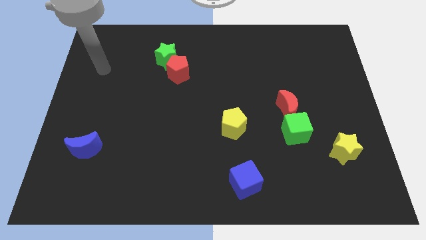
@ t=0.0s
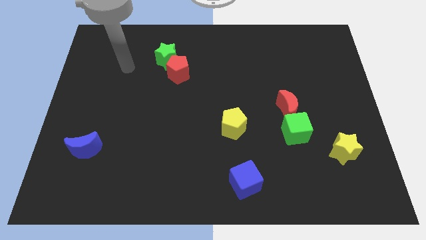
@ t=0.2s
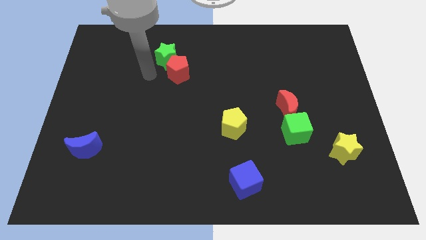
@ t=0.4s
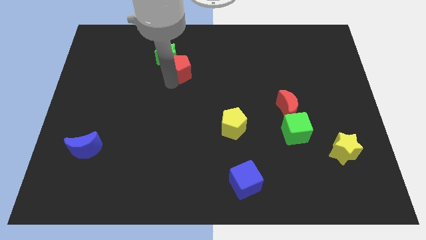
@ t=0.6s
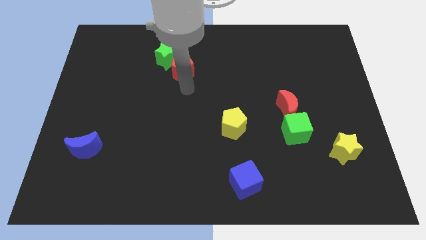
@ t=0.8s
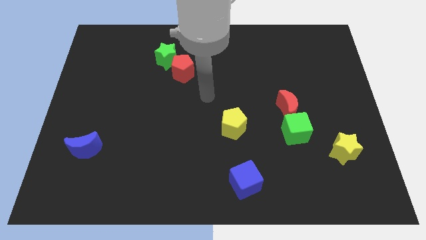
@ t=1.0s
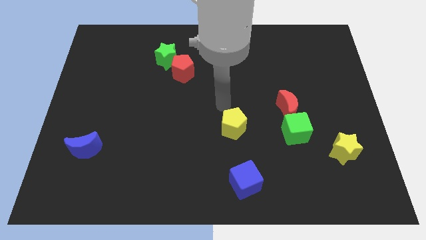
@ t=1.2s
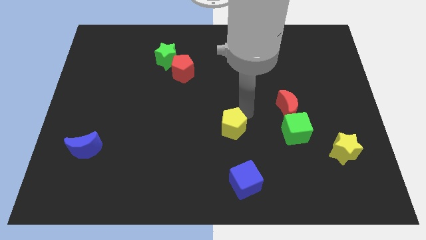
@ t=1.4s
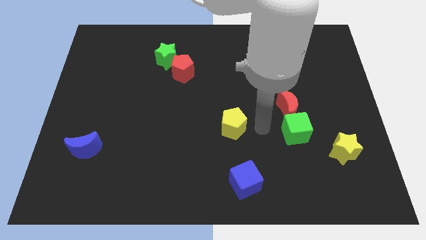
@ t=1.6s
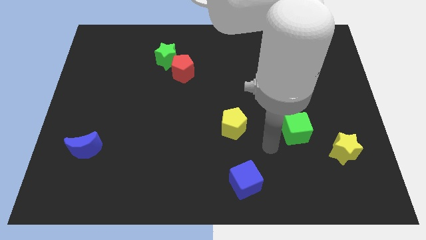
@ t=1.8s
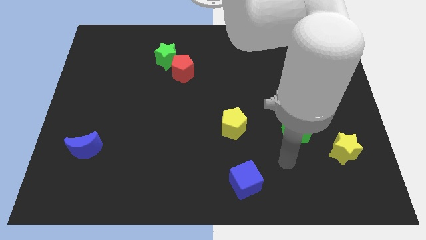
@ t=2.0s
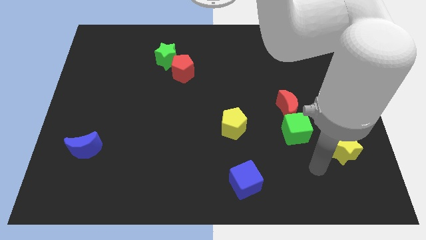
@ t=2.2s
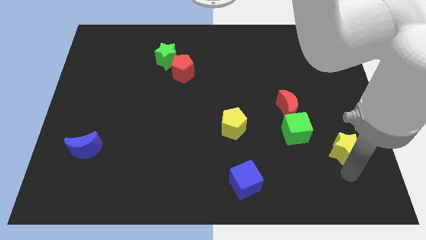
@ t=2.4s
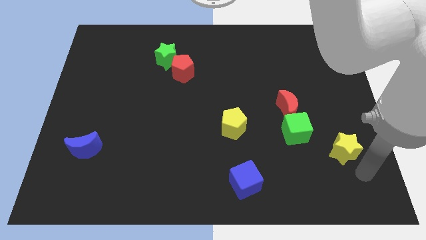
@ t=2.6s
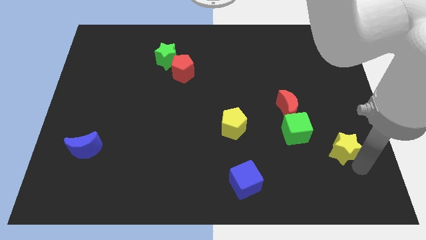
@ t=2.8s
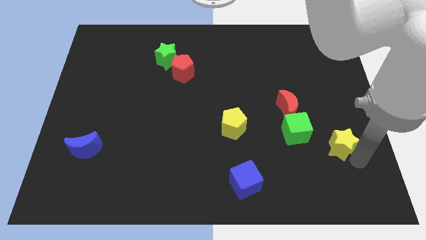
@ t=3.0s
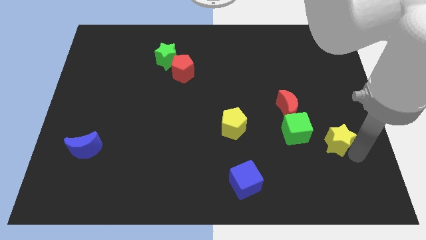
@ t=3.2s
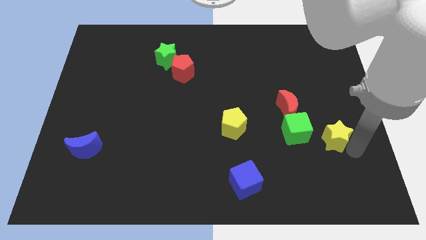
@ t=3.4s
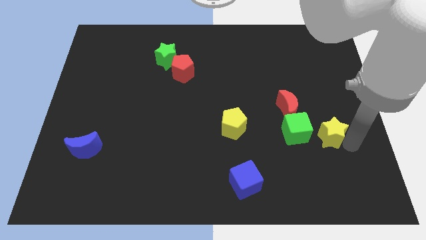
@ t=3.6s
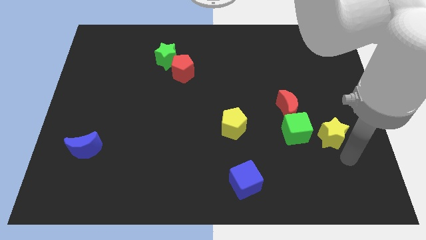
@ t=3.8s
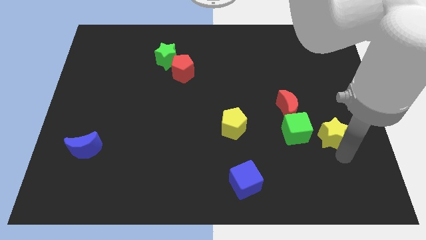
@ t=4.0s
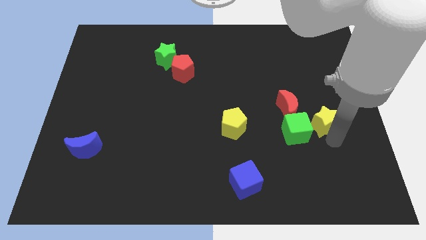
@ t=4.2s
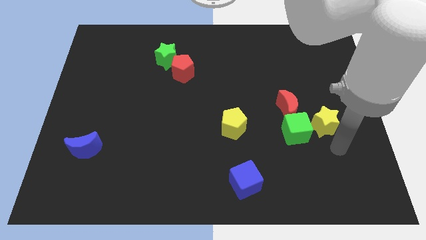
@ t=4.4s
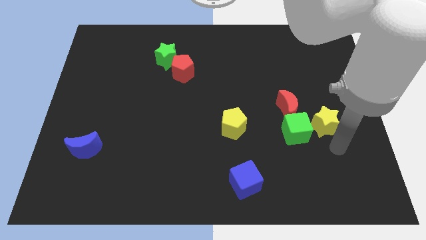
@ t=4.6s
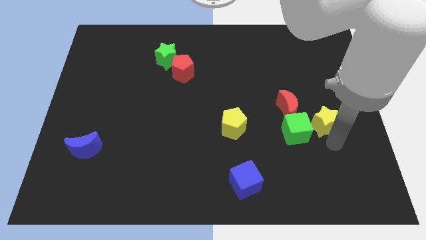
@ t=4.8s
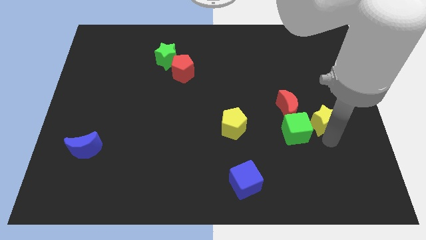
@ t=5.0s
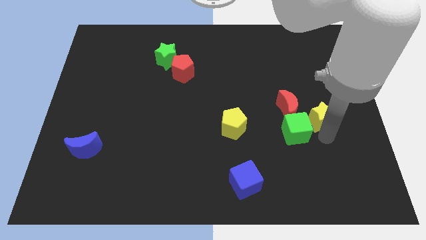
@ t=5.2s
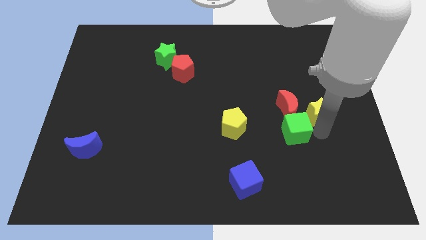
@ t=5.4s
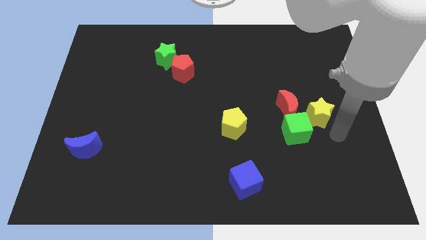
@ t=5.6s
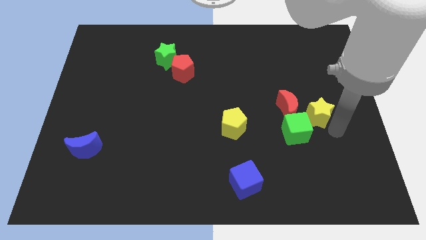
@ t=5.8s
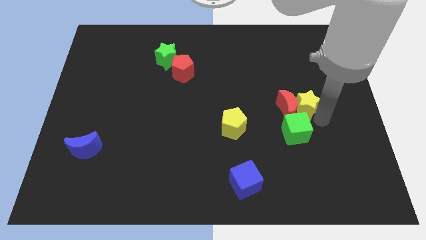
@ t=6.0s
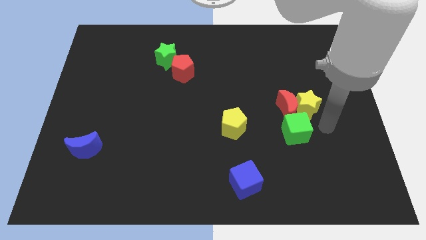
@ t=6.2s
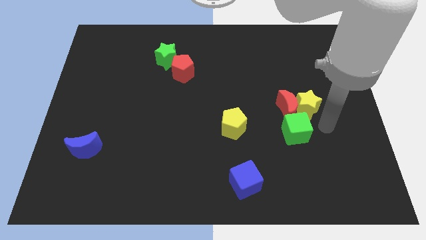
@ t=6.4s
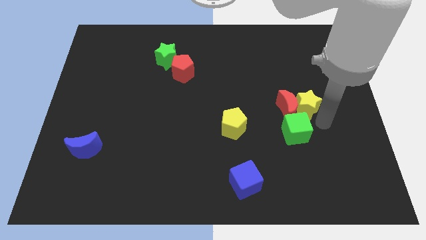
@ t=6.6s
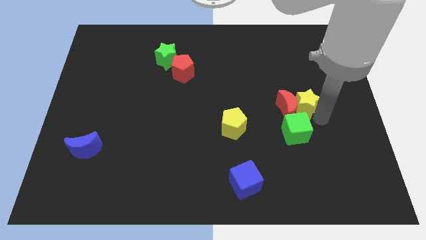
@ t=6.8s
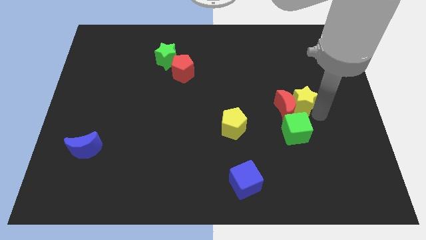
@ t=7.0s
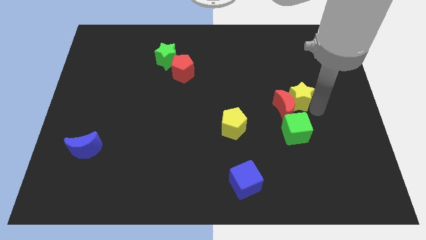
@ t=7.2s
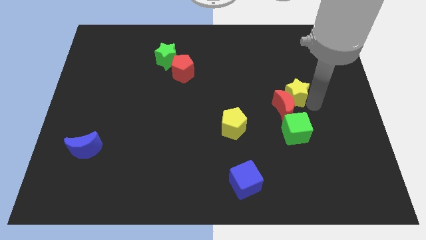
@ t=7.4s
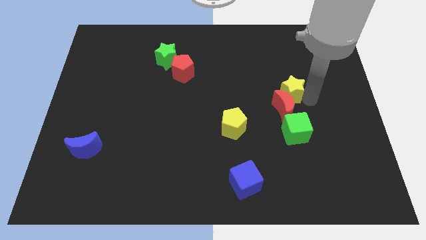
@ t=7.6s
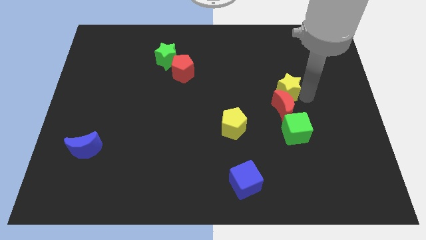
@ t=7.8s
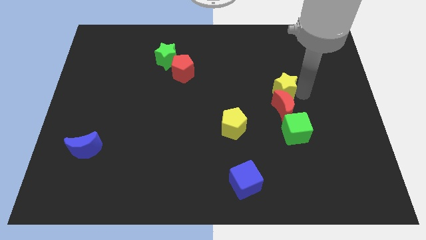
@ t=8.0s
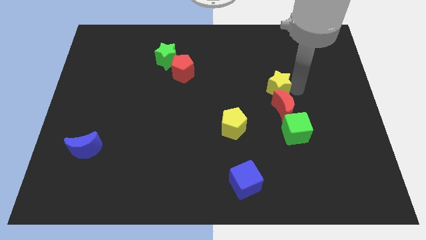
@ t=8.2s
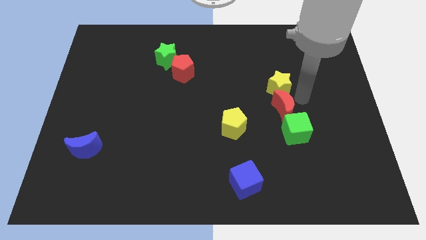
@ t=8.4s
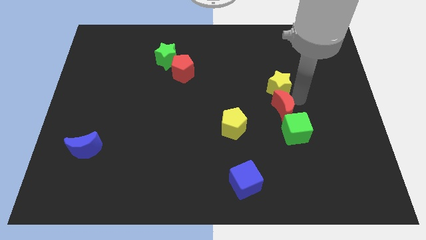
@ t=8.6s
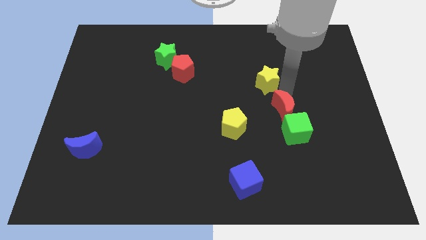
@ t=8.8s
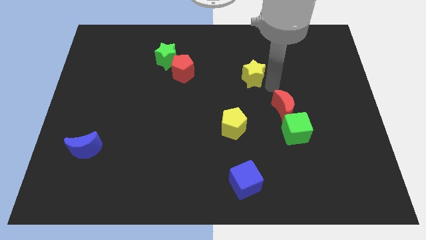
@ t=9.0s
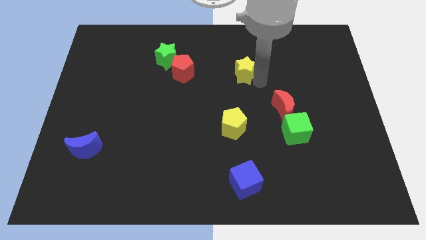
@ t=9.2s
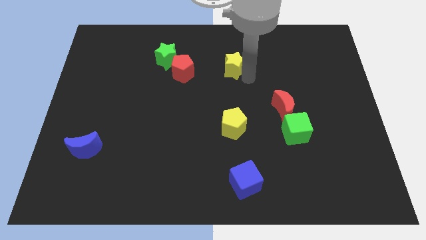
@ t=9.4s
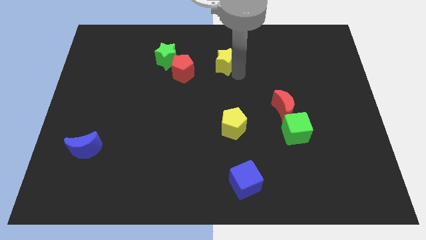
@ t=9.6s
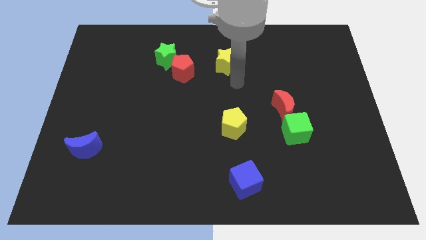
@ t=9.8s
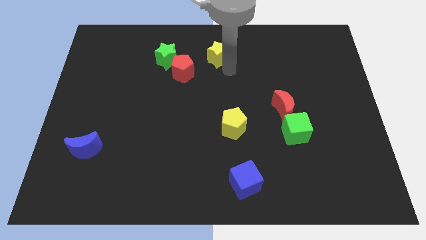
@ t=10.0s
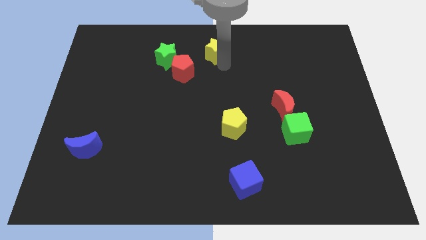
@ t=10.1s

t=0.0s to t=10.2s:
slide the yellow star to the top side

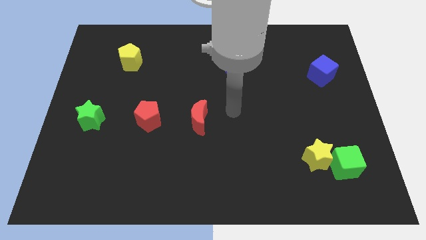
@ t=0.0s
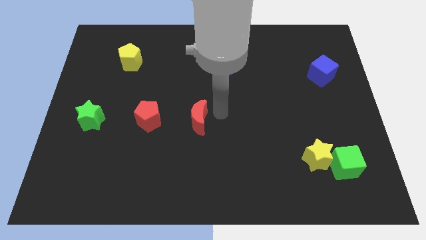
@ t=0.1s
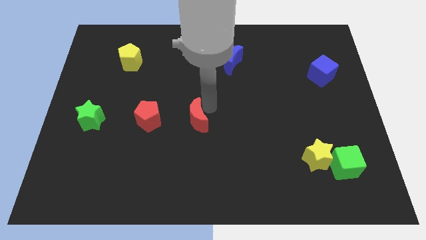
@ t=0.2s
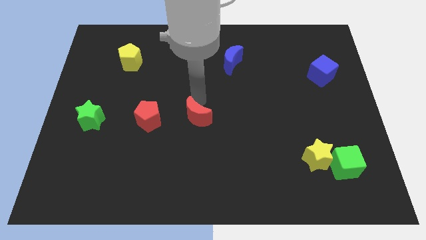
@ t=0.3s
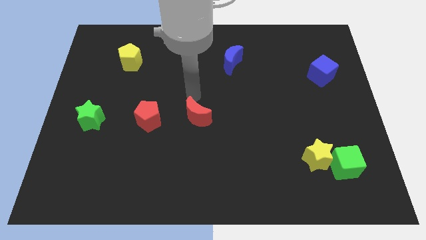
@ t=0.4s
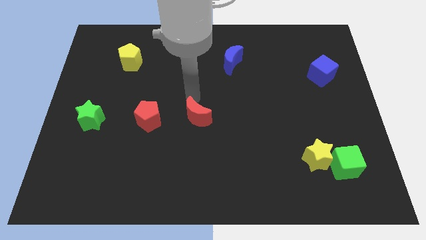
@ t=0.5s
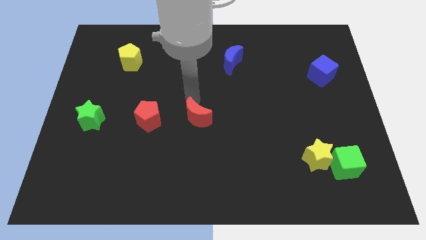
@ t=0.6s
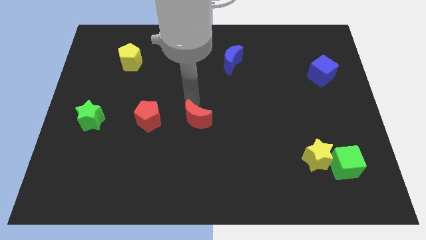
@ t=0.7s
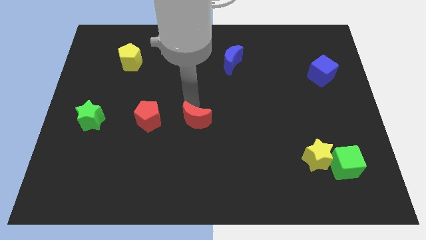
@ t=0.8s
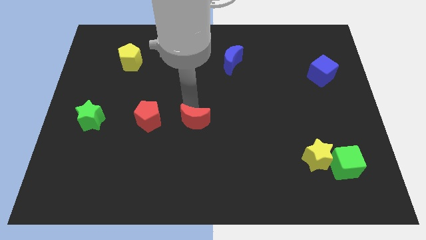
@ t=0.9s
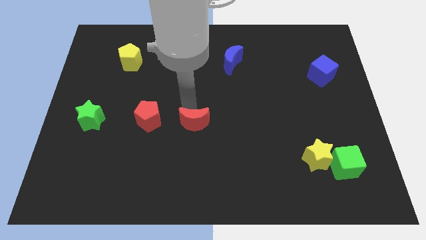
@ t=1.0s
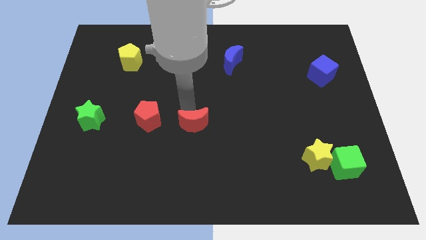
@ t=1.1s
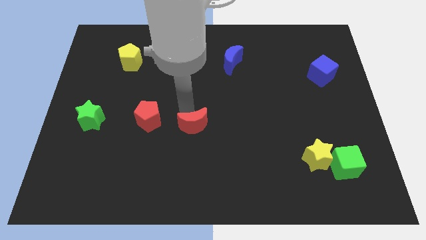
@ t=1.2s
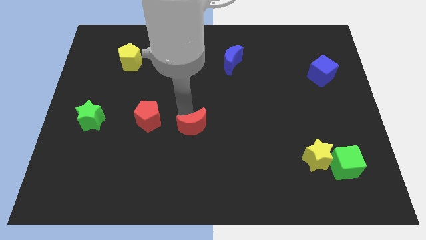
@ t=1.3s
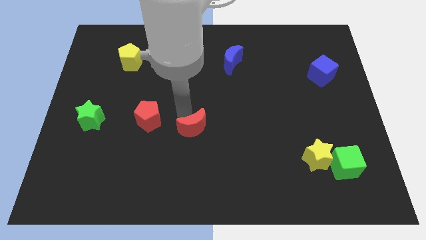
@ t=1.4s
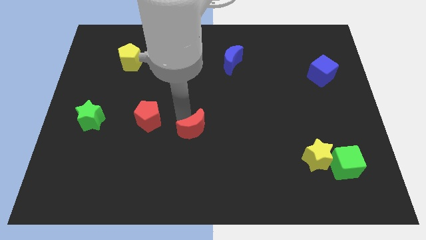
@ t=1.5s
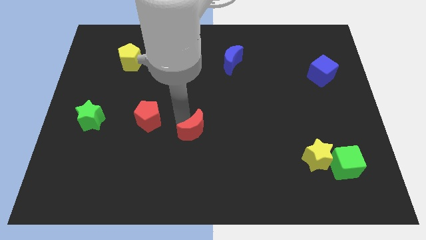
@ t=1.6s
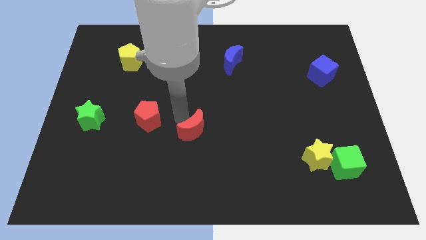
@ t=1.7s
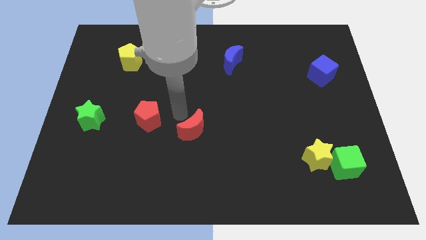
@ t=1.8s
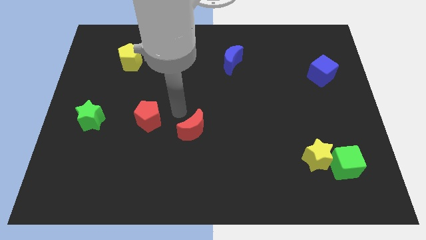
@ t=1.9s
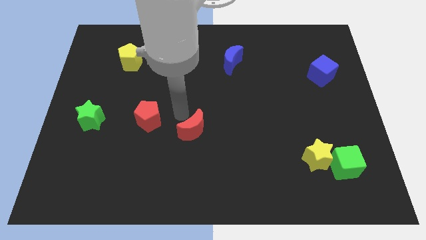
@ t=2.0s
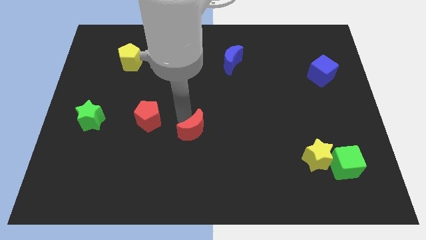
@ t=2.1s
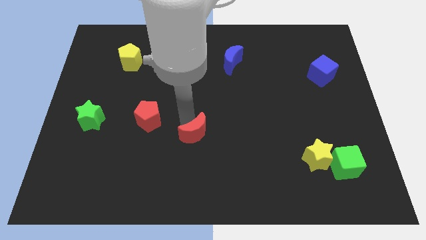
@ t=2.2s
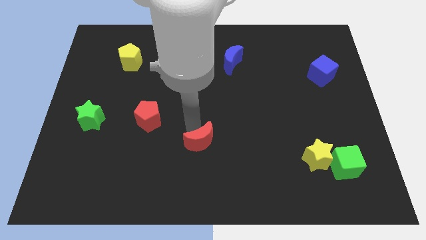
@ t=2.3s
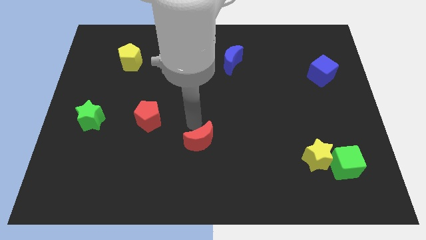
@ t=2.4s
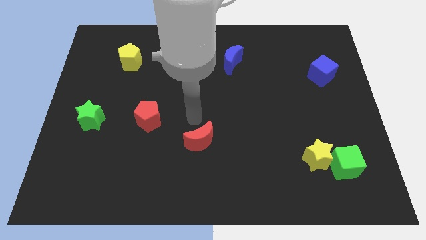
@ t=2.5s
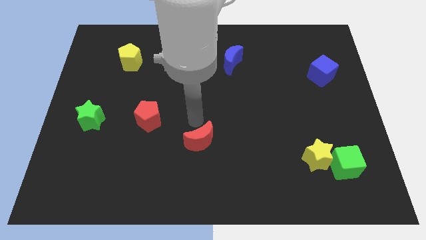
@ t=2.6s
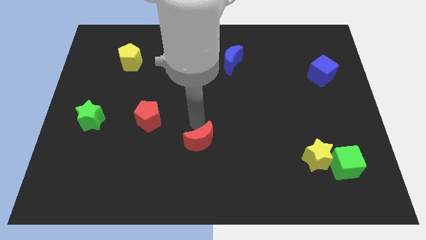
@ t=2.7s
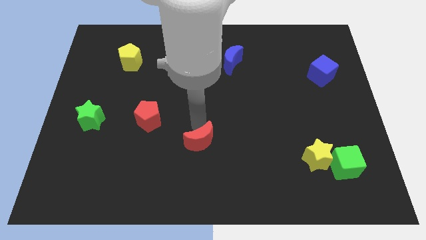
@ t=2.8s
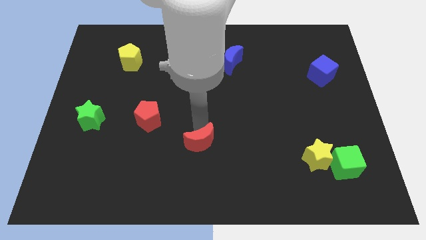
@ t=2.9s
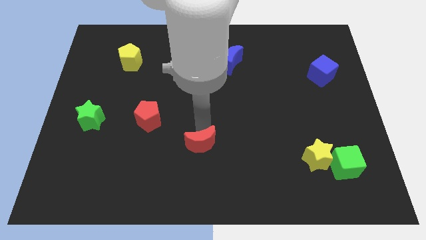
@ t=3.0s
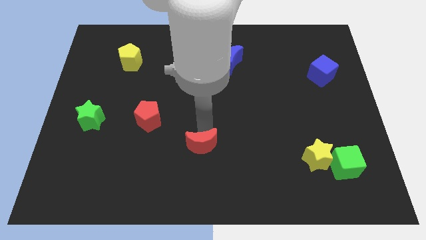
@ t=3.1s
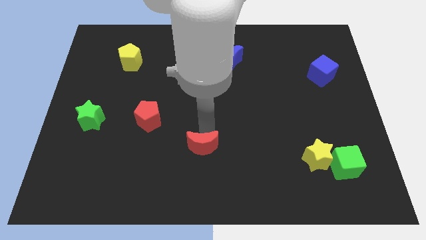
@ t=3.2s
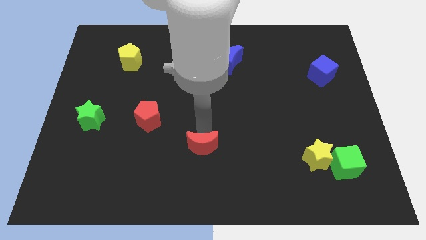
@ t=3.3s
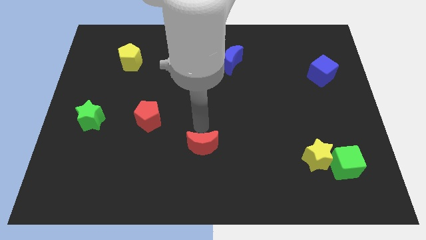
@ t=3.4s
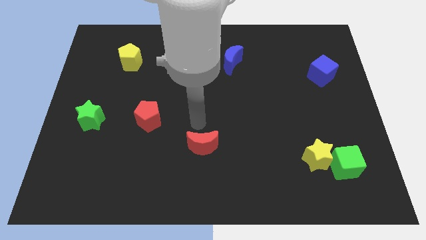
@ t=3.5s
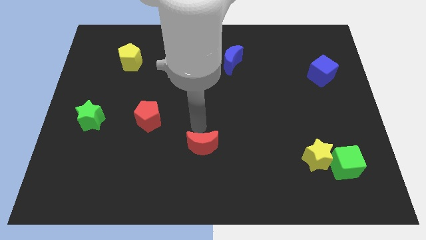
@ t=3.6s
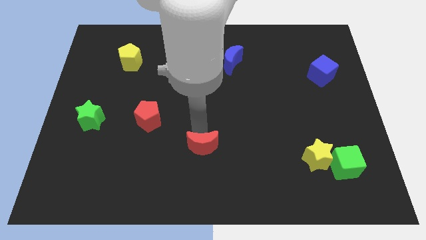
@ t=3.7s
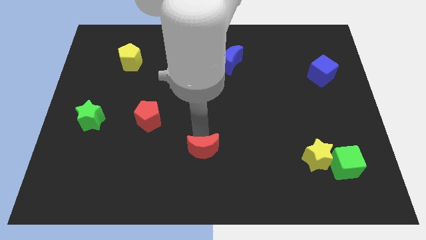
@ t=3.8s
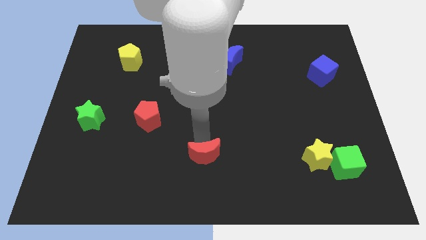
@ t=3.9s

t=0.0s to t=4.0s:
move the red moon to the bottom side
